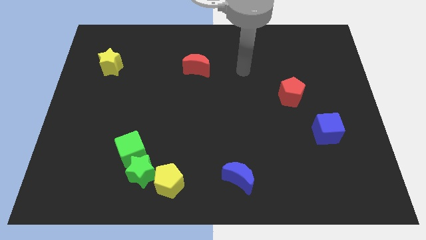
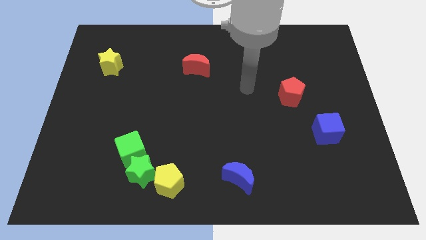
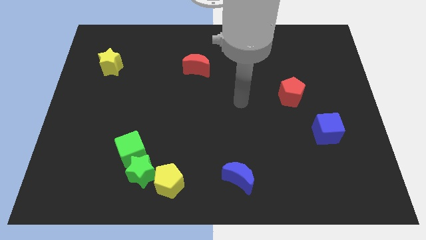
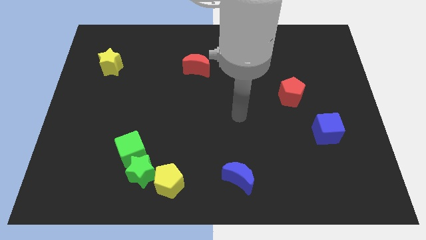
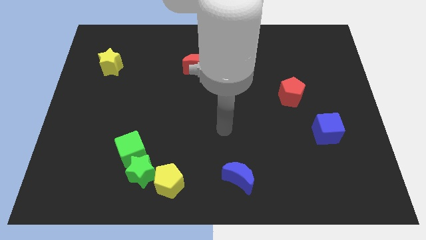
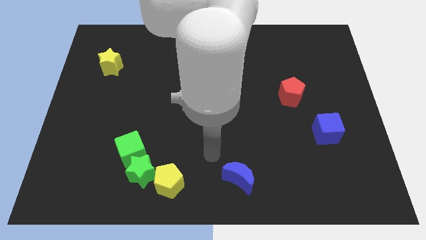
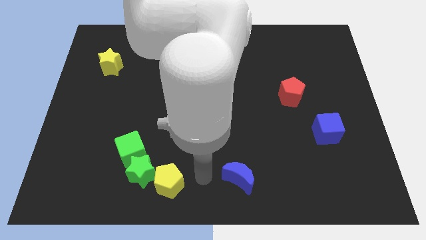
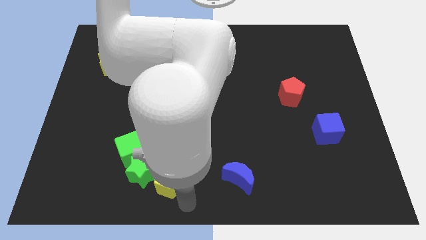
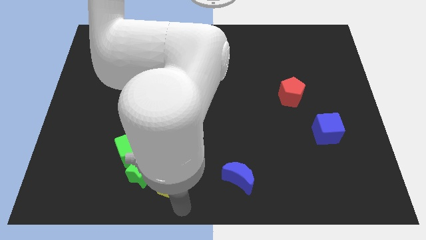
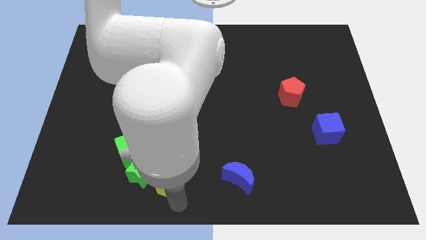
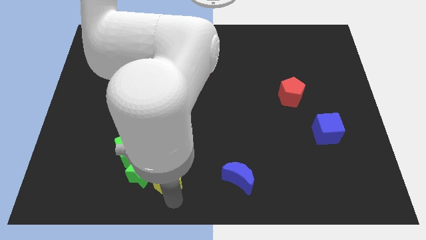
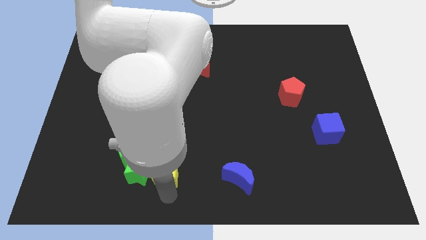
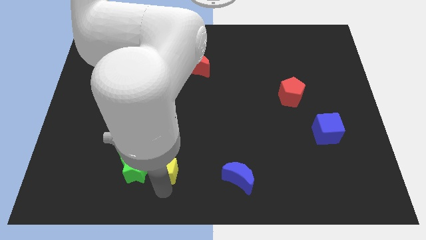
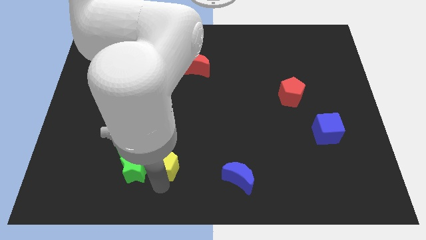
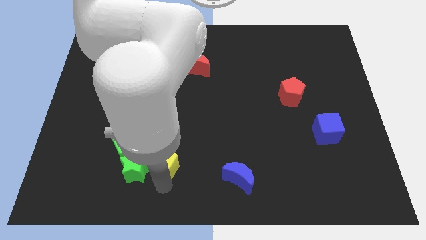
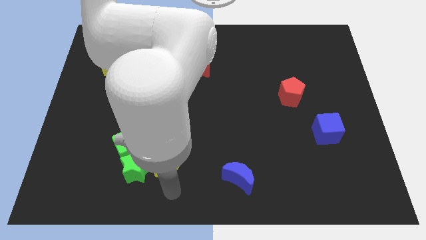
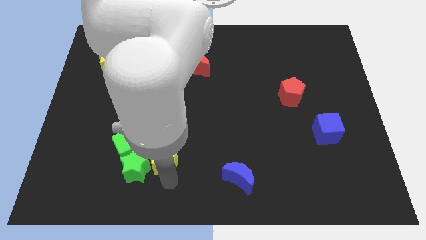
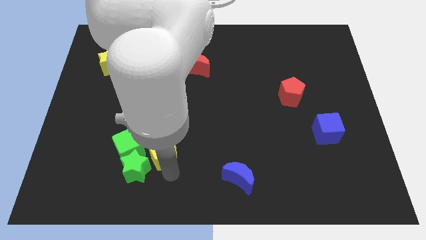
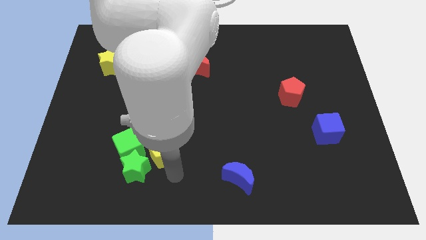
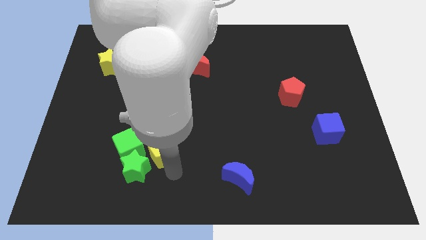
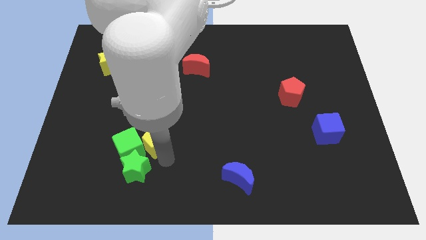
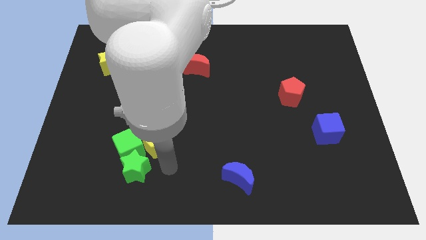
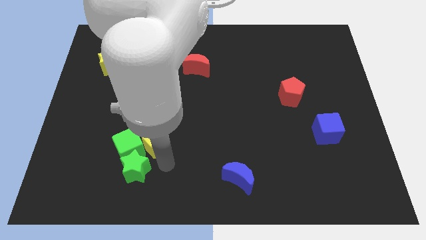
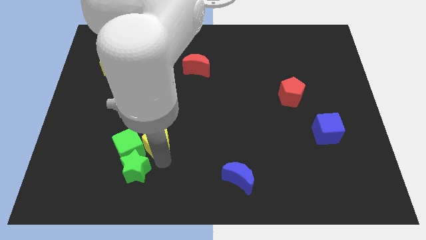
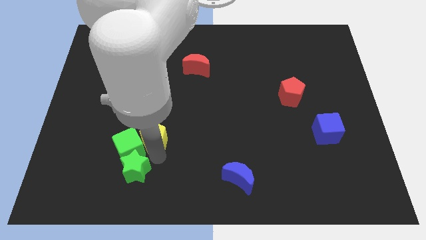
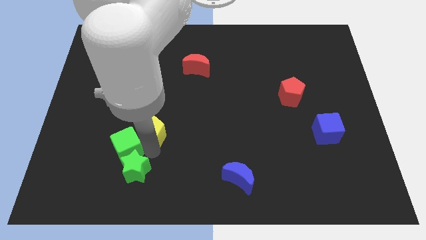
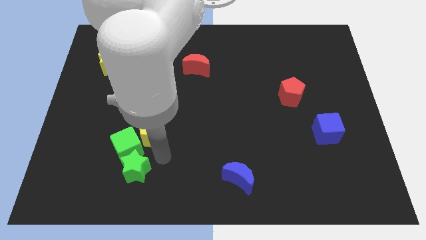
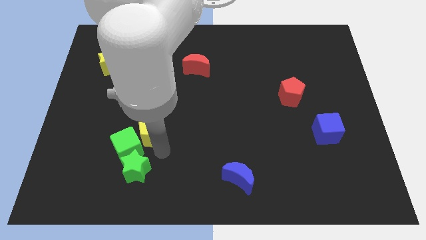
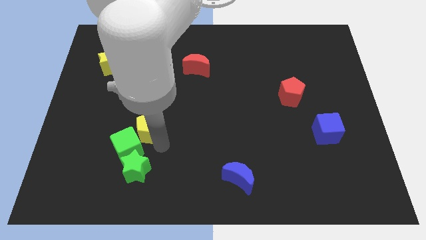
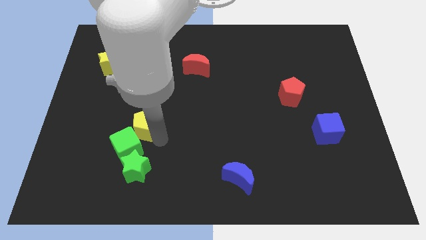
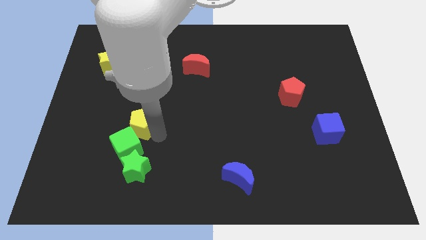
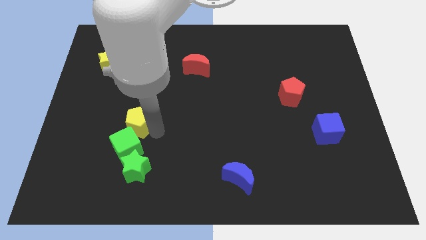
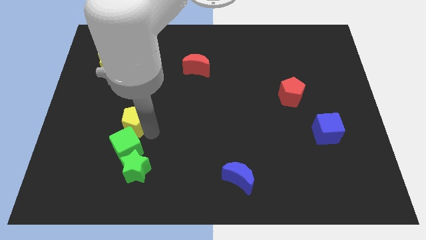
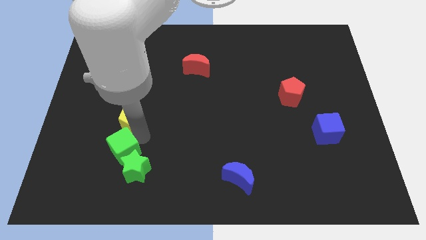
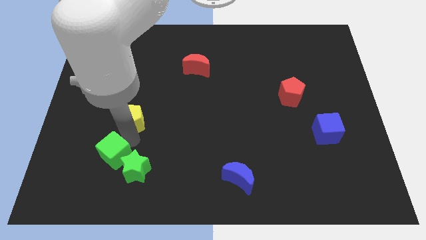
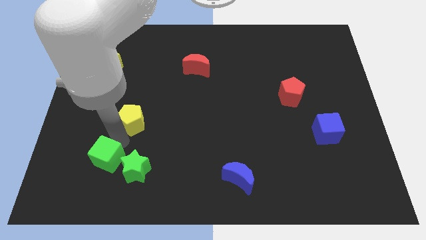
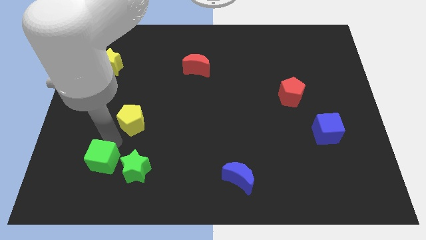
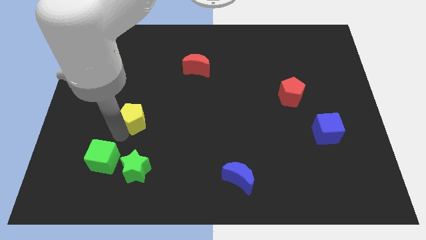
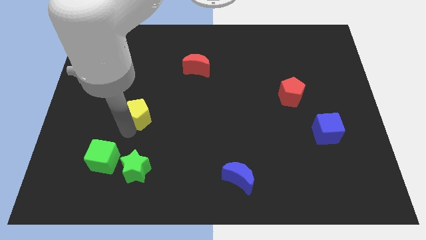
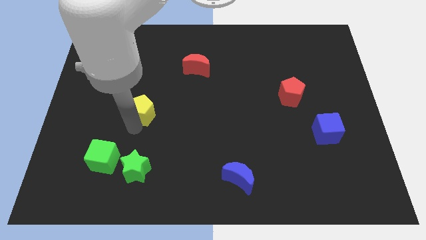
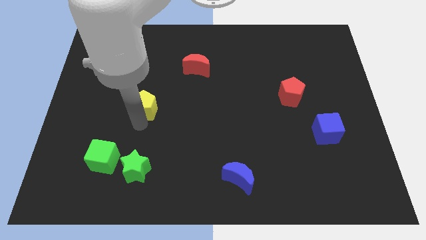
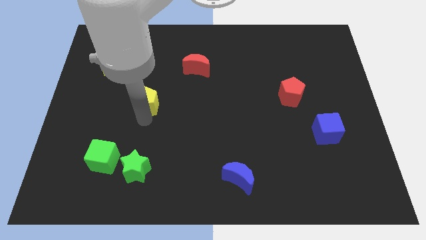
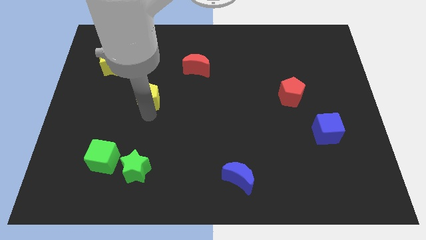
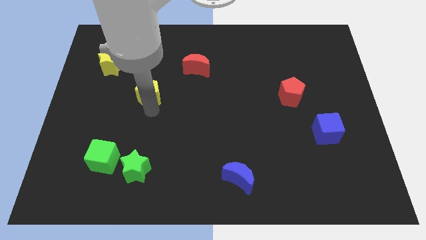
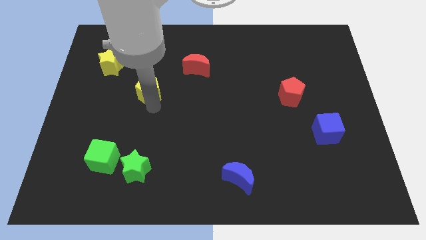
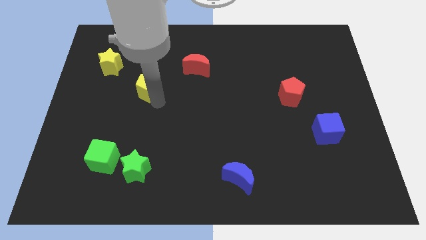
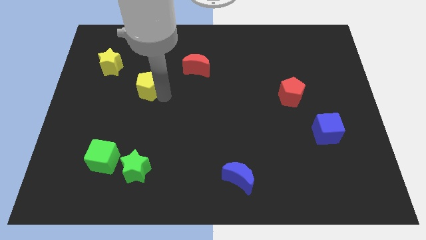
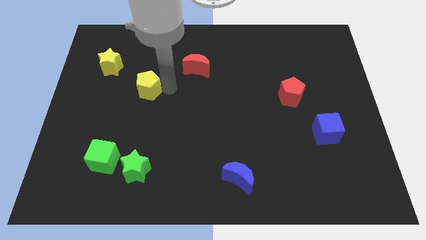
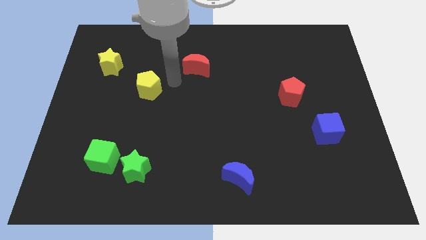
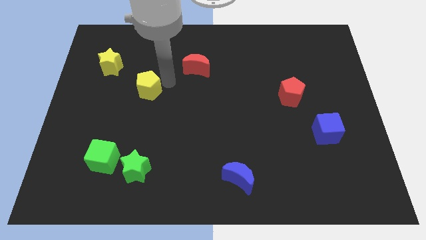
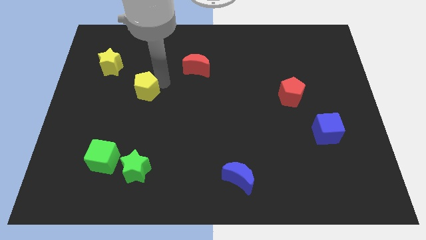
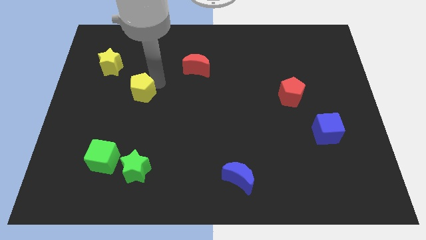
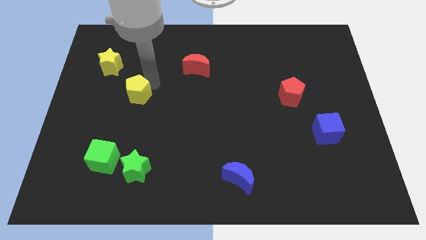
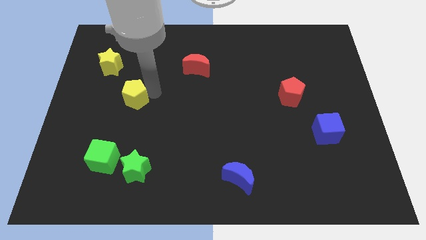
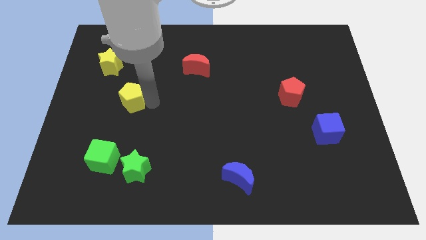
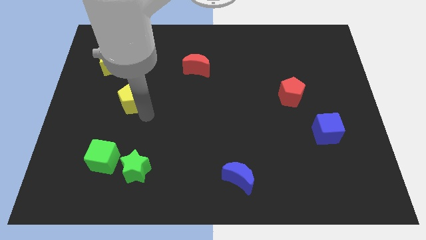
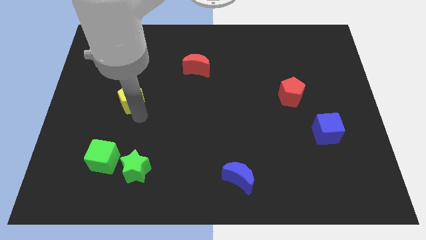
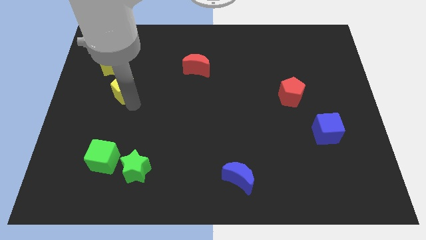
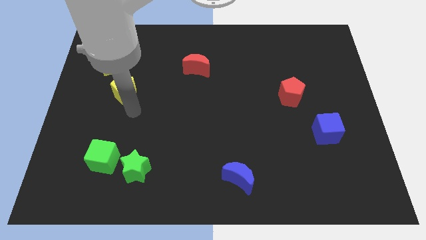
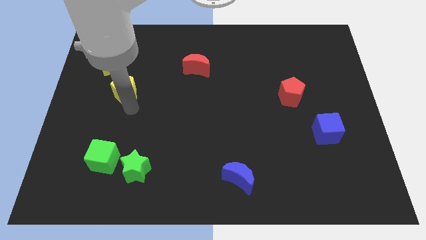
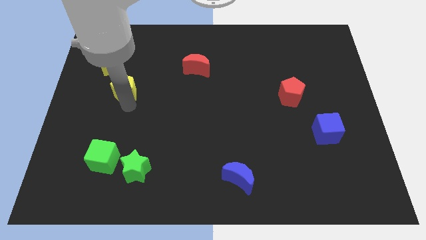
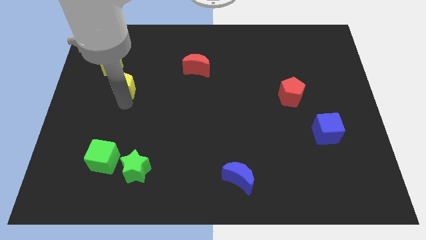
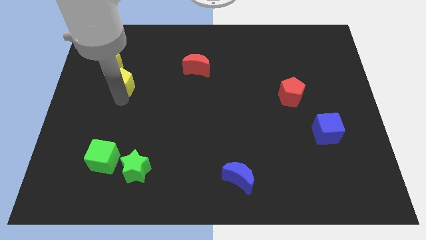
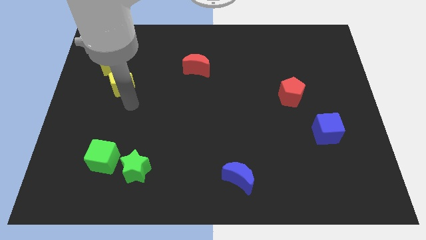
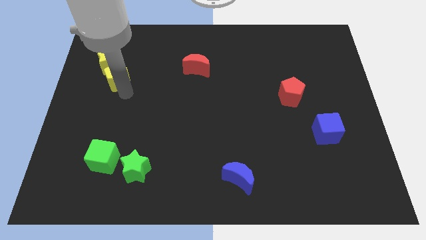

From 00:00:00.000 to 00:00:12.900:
slide the yellow pentagon towards the yellow star
